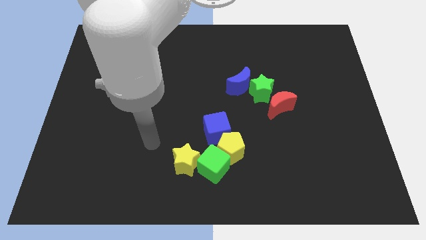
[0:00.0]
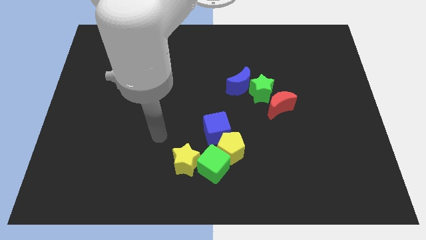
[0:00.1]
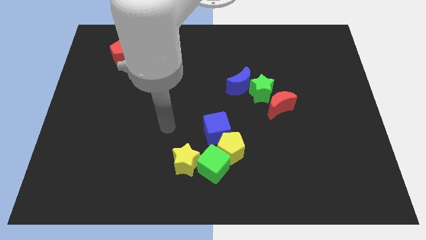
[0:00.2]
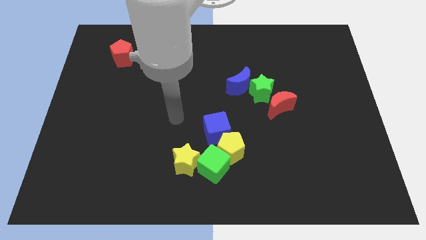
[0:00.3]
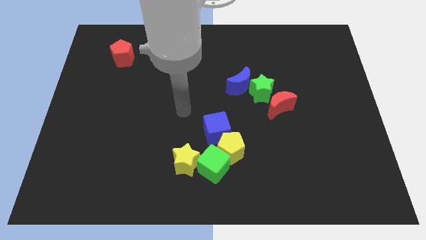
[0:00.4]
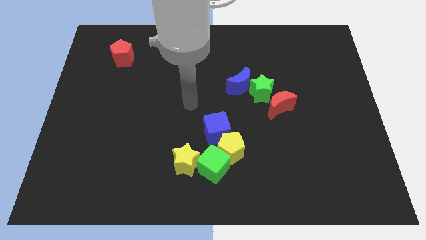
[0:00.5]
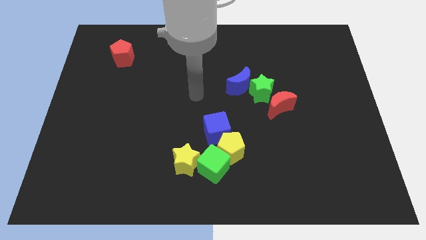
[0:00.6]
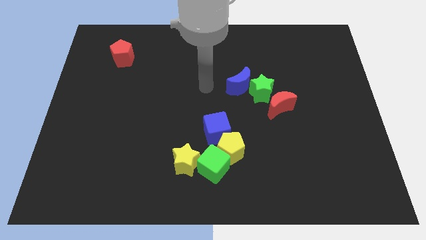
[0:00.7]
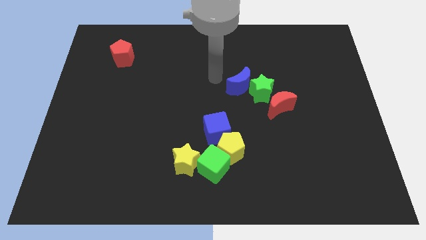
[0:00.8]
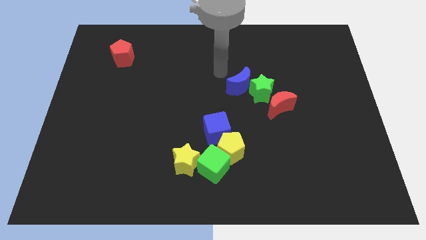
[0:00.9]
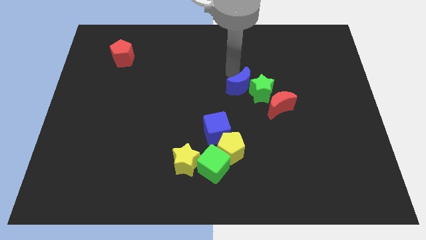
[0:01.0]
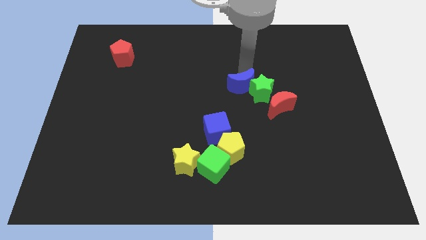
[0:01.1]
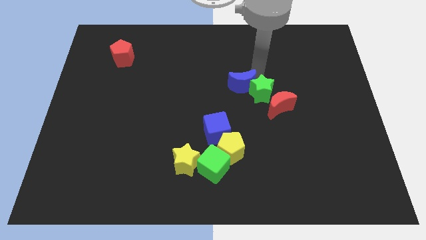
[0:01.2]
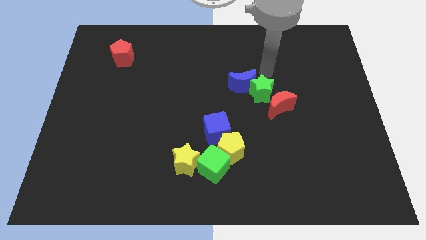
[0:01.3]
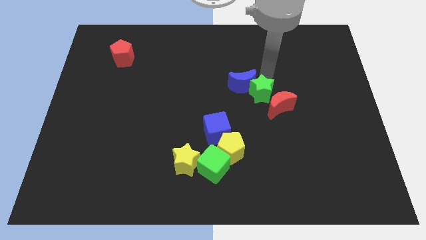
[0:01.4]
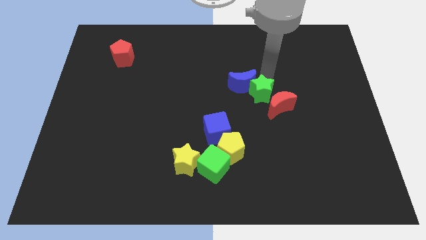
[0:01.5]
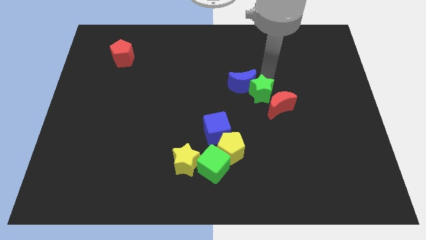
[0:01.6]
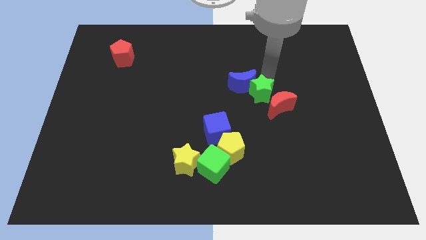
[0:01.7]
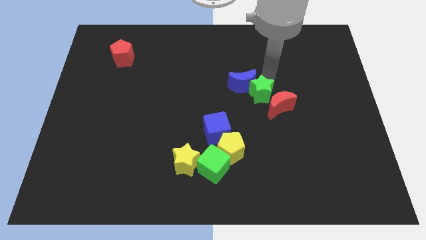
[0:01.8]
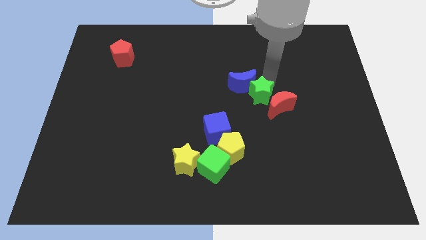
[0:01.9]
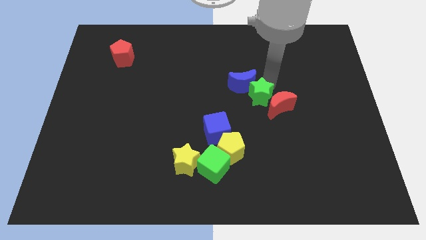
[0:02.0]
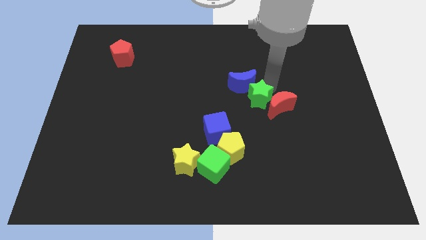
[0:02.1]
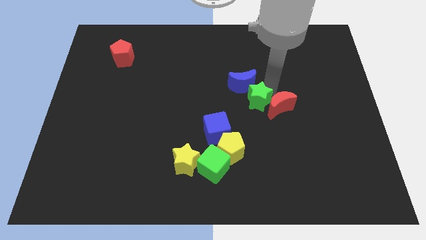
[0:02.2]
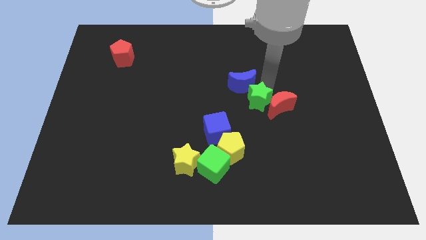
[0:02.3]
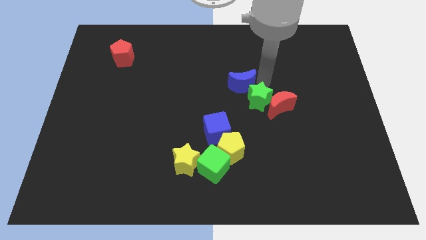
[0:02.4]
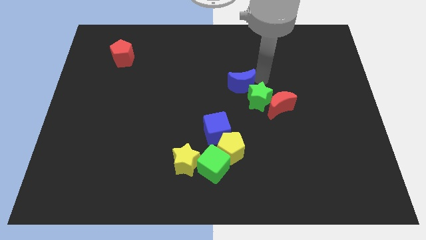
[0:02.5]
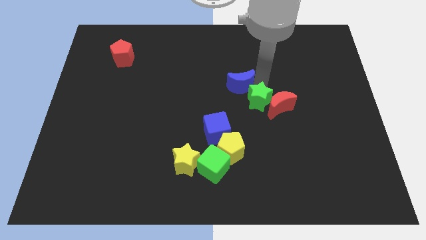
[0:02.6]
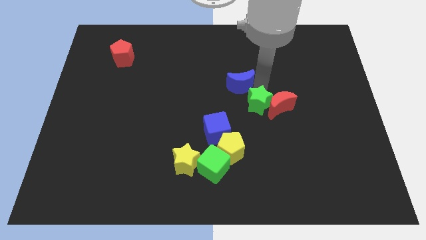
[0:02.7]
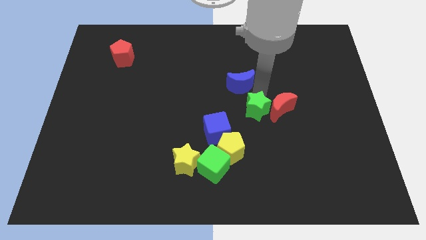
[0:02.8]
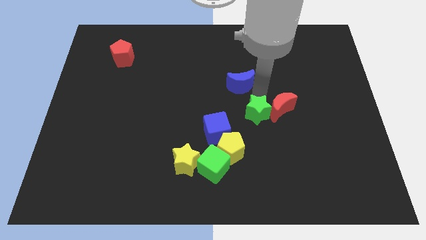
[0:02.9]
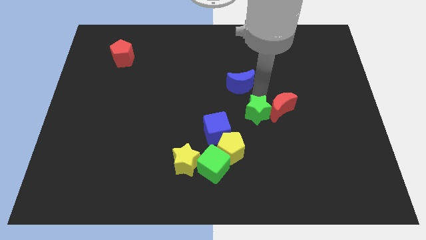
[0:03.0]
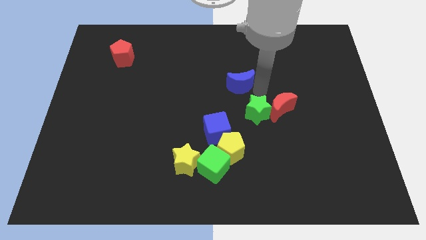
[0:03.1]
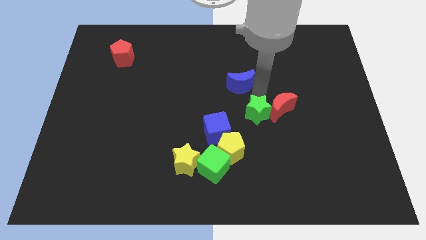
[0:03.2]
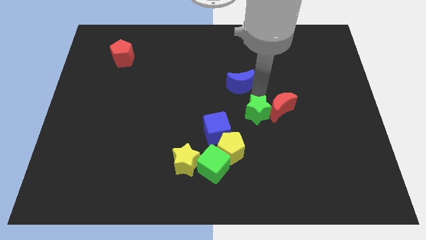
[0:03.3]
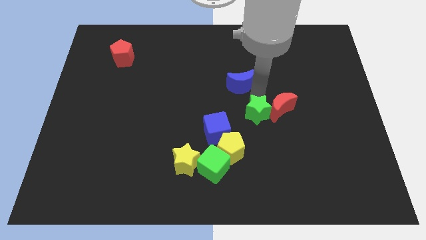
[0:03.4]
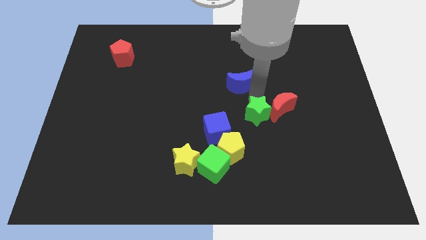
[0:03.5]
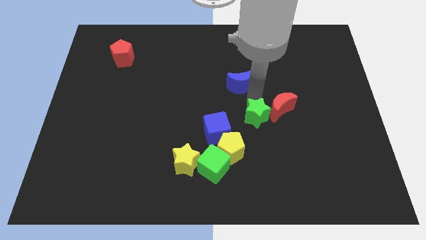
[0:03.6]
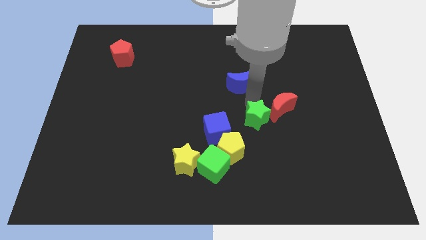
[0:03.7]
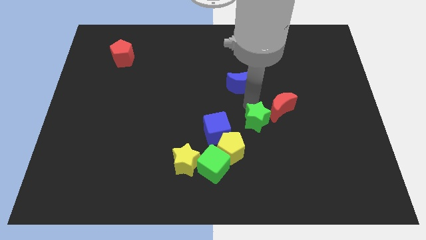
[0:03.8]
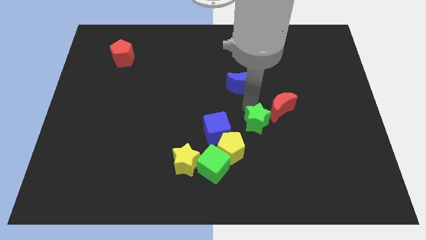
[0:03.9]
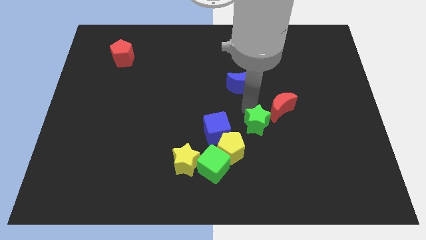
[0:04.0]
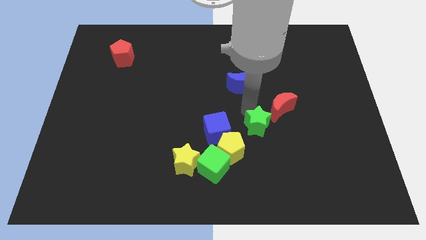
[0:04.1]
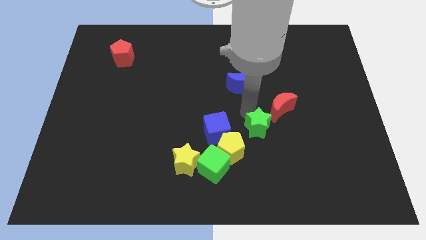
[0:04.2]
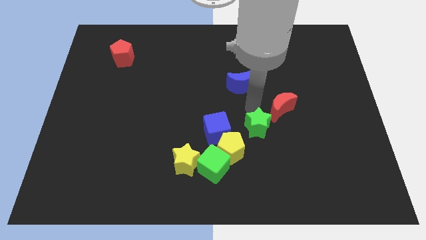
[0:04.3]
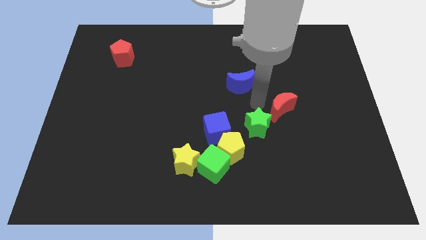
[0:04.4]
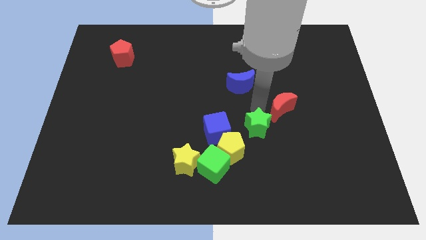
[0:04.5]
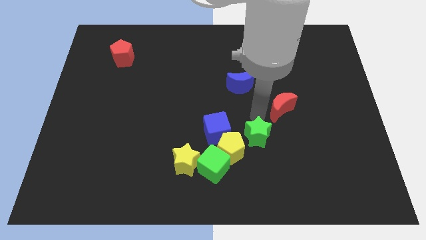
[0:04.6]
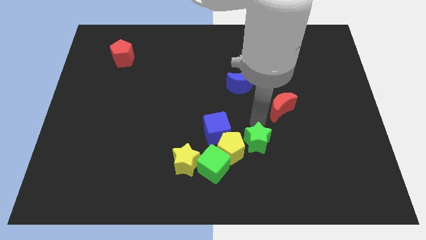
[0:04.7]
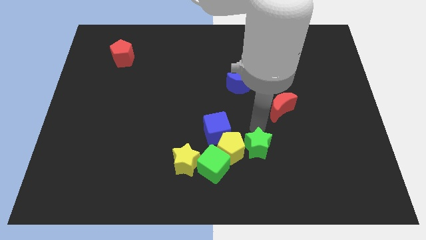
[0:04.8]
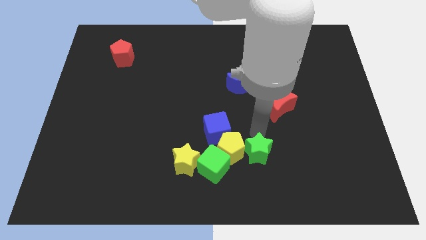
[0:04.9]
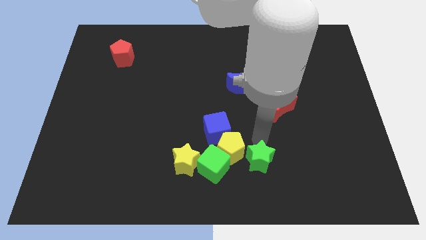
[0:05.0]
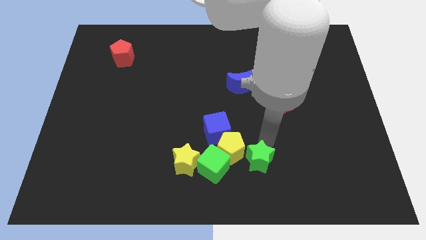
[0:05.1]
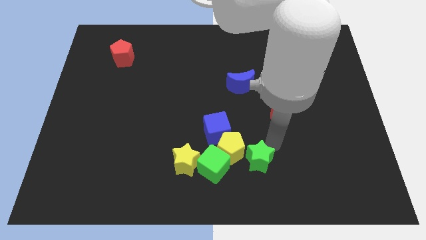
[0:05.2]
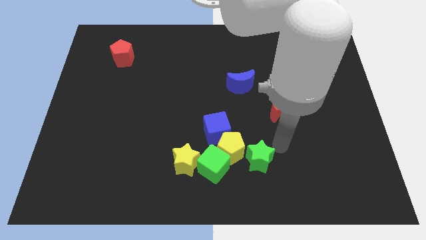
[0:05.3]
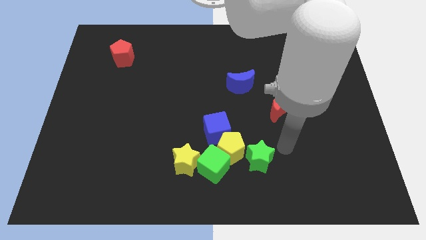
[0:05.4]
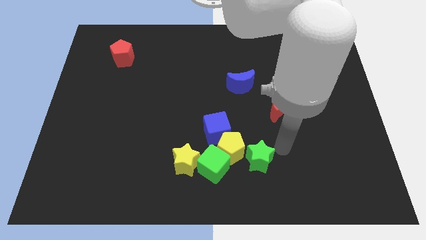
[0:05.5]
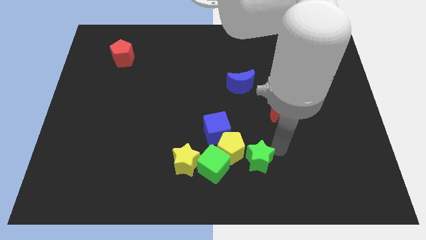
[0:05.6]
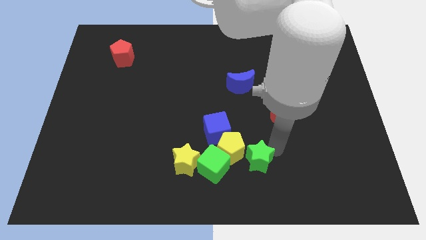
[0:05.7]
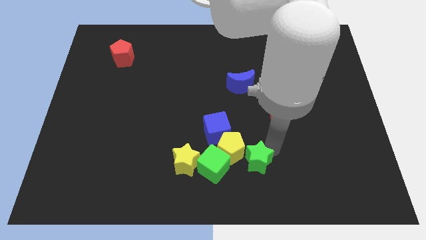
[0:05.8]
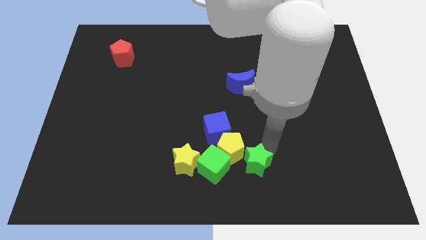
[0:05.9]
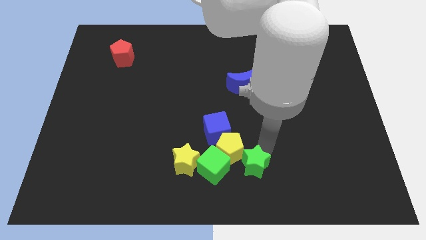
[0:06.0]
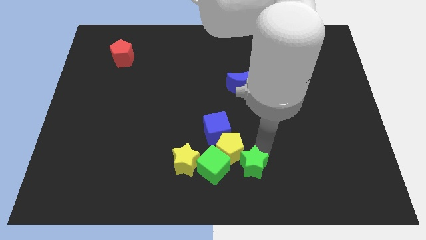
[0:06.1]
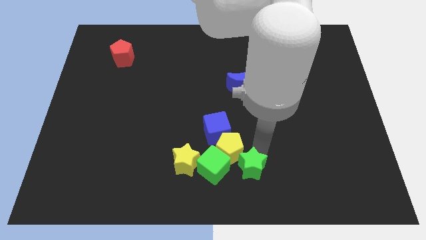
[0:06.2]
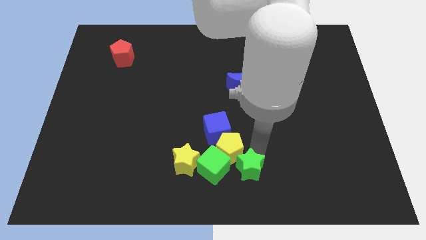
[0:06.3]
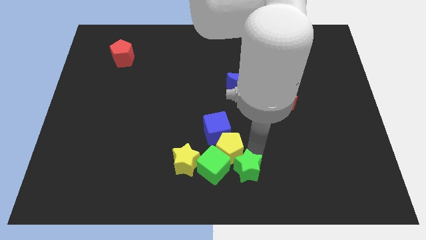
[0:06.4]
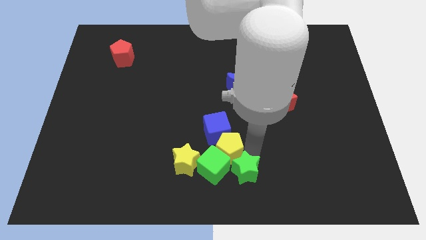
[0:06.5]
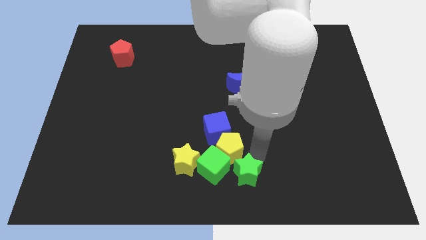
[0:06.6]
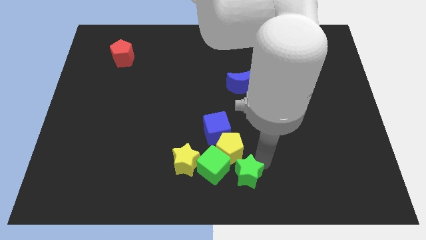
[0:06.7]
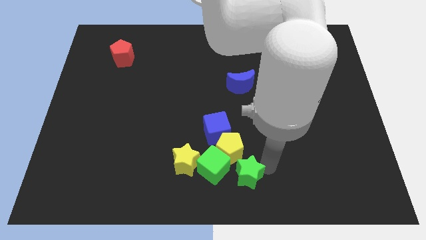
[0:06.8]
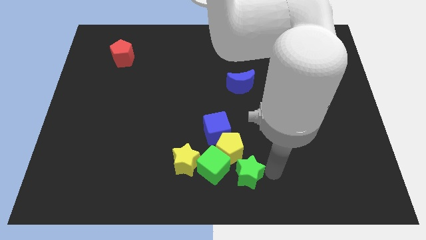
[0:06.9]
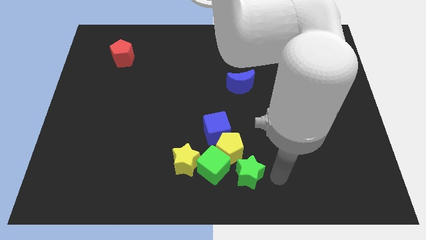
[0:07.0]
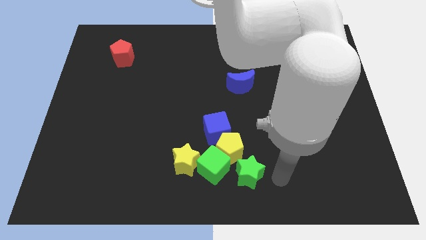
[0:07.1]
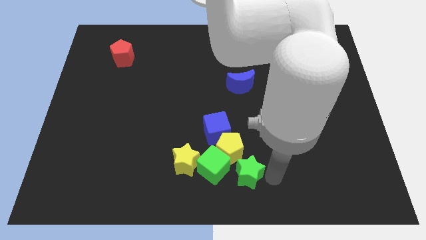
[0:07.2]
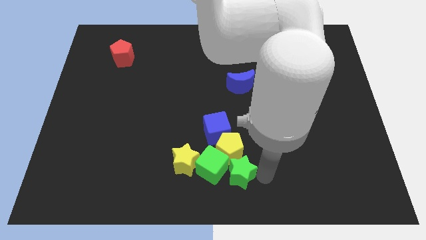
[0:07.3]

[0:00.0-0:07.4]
move the green star towards the green cube

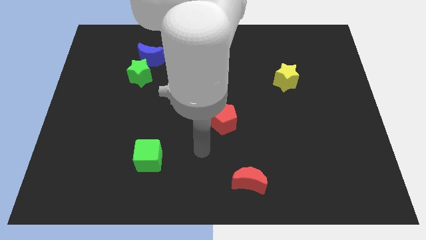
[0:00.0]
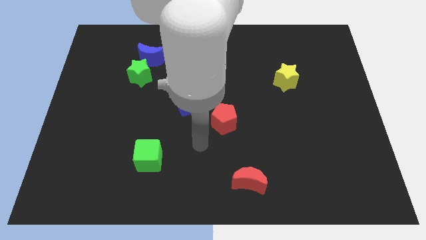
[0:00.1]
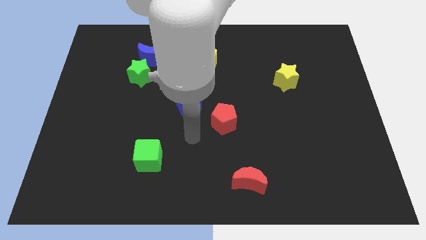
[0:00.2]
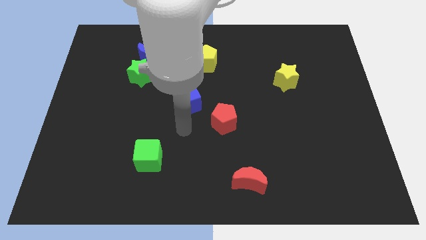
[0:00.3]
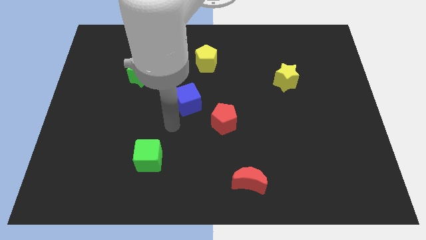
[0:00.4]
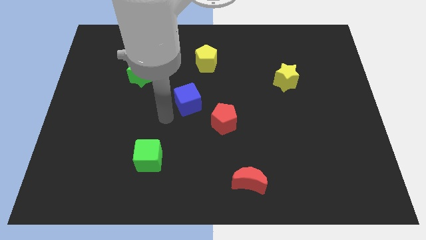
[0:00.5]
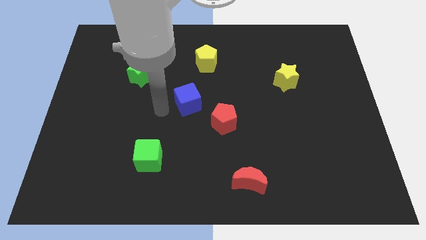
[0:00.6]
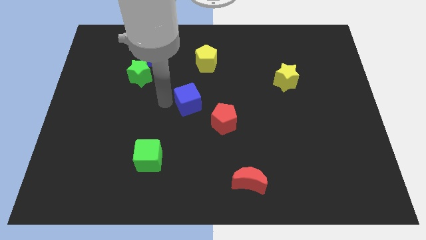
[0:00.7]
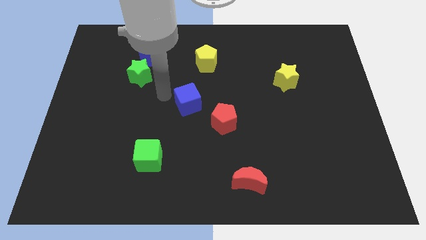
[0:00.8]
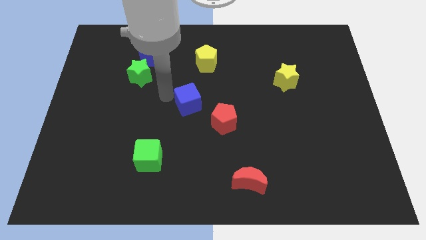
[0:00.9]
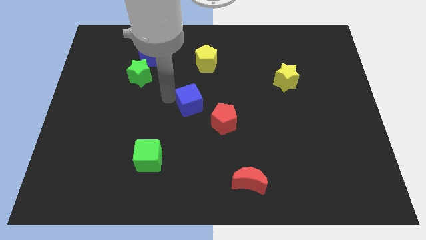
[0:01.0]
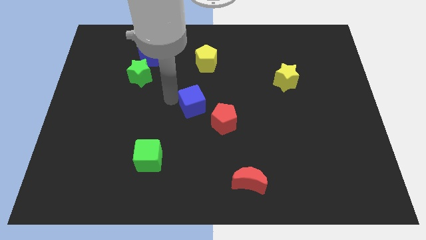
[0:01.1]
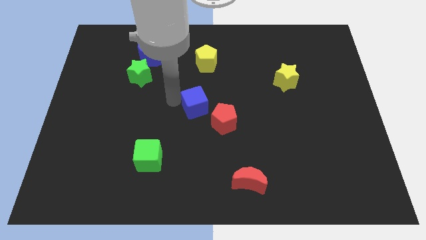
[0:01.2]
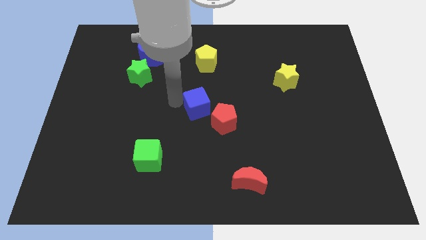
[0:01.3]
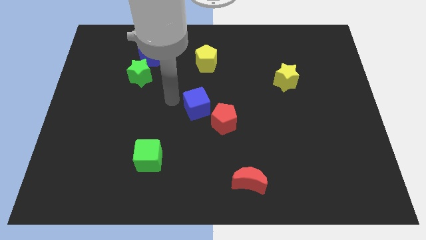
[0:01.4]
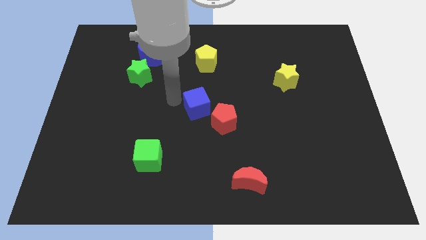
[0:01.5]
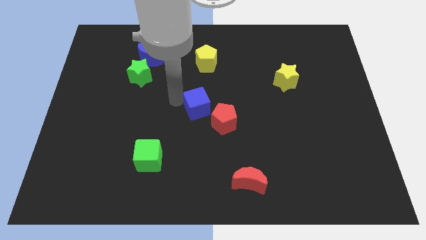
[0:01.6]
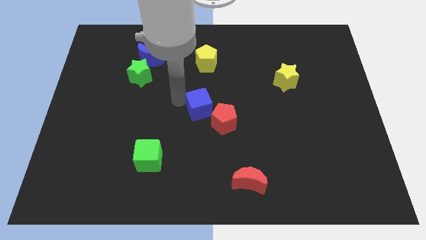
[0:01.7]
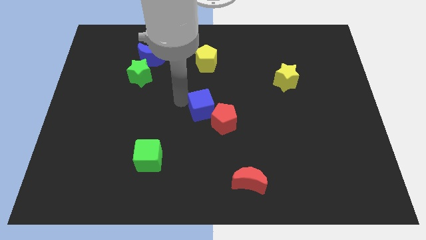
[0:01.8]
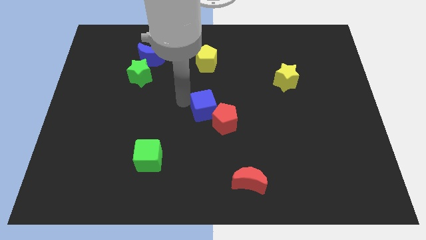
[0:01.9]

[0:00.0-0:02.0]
slide the blue cube close to the red pentagon
